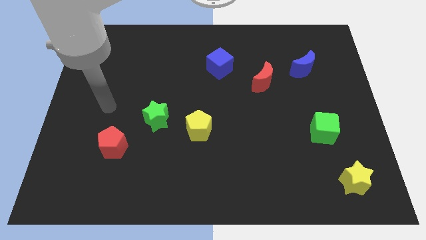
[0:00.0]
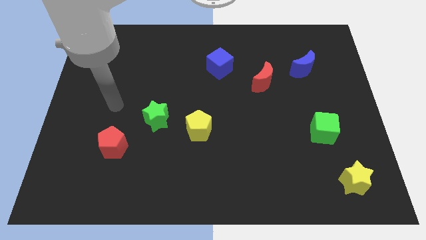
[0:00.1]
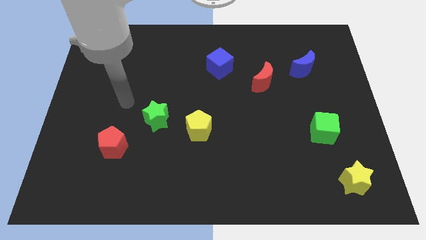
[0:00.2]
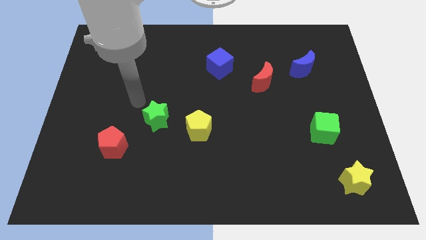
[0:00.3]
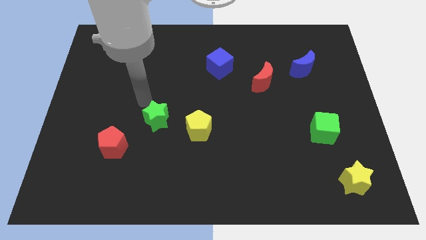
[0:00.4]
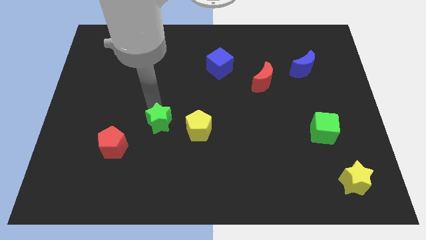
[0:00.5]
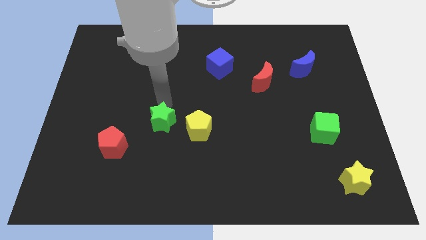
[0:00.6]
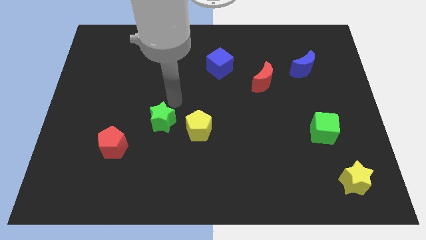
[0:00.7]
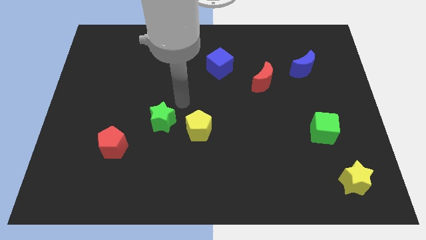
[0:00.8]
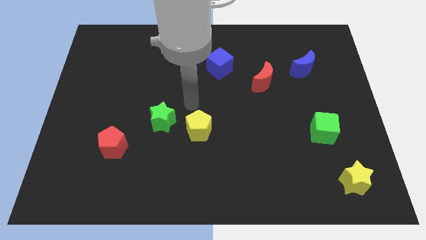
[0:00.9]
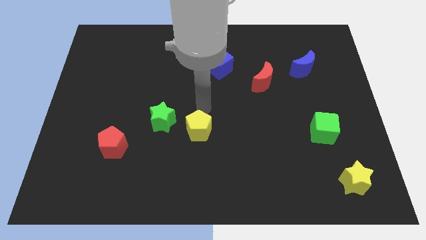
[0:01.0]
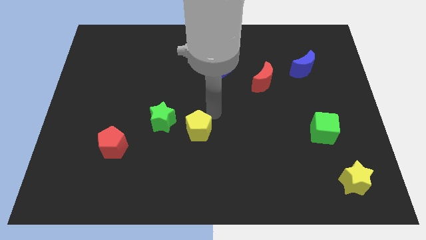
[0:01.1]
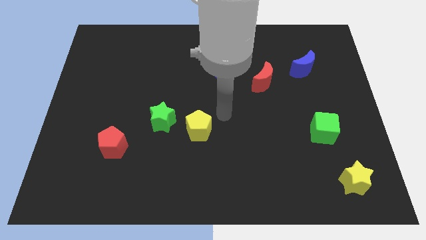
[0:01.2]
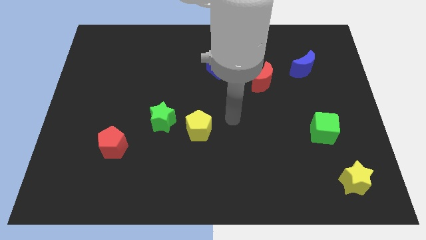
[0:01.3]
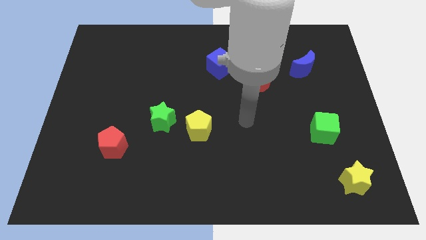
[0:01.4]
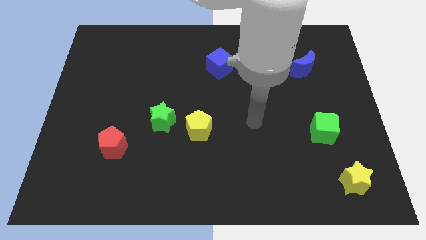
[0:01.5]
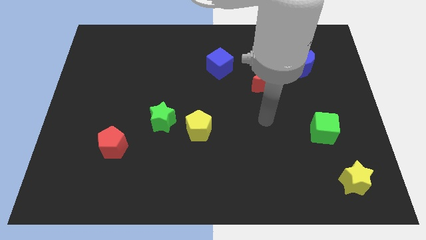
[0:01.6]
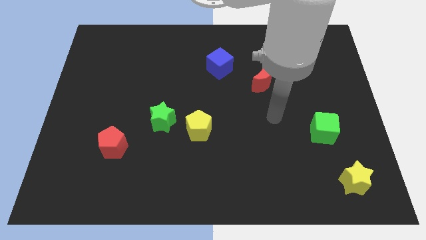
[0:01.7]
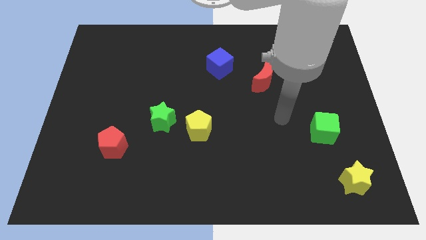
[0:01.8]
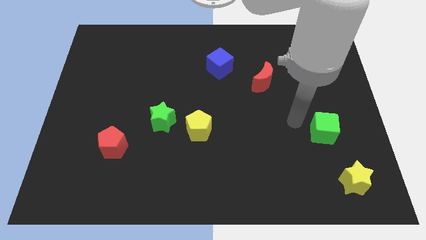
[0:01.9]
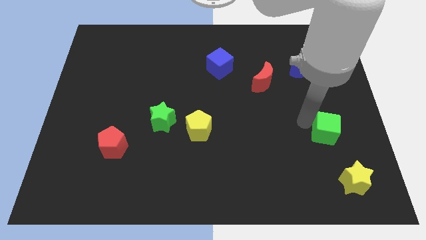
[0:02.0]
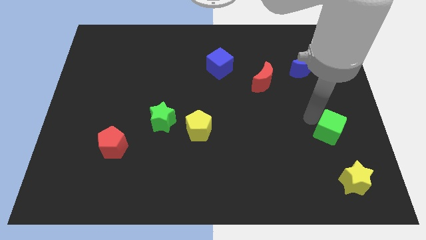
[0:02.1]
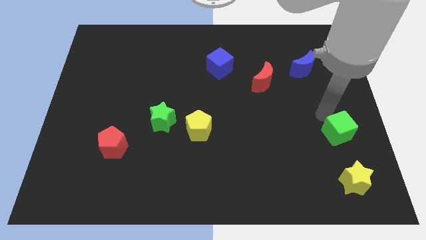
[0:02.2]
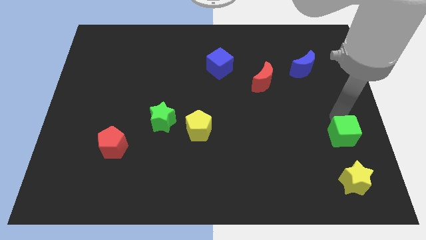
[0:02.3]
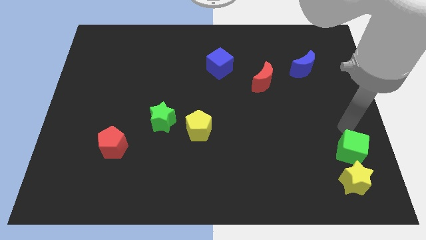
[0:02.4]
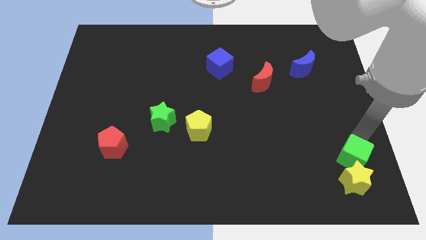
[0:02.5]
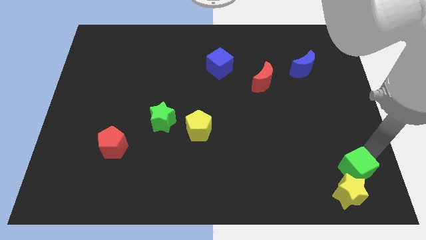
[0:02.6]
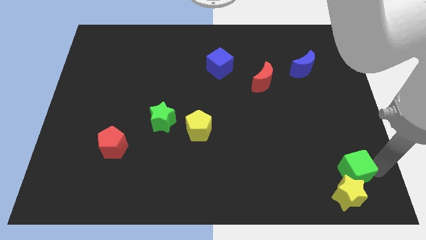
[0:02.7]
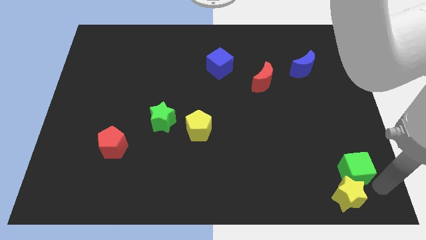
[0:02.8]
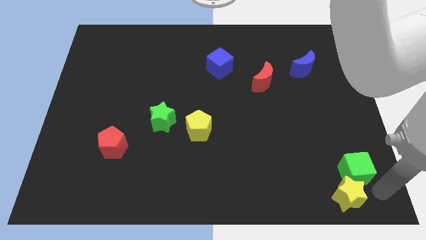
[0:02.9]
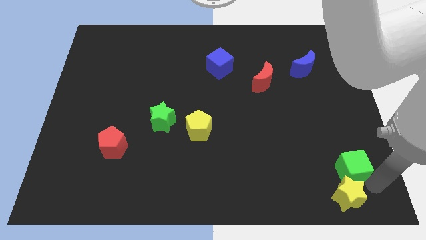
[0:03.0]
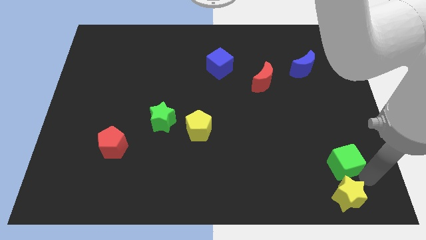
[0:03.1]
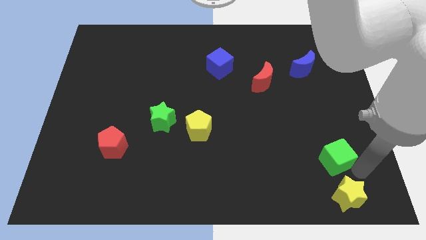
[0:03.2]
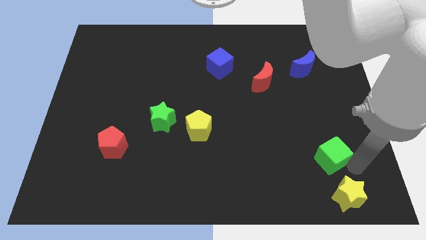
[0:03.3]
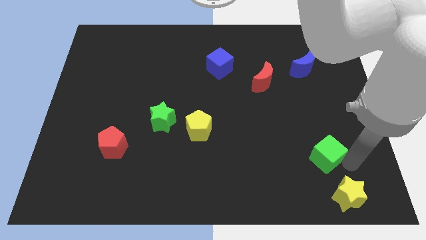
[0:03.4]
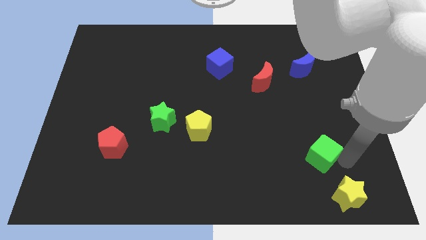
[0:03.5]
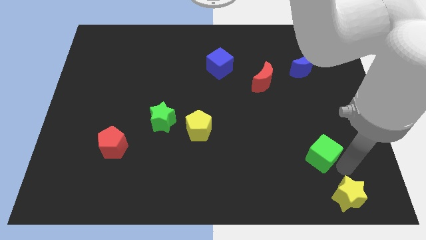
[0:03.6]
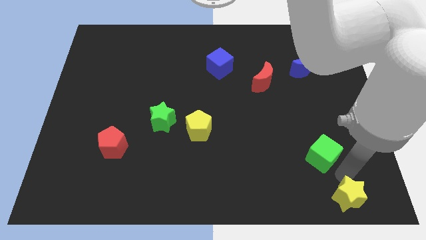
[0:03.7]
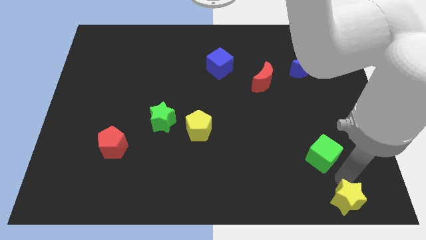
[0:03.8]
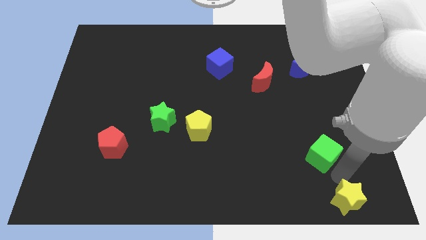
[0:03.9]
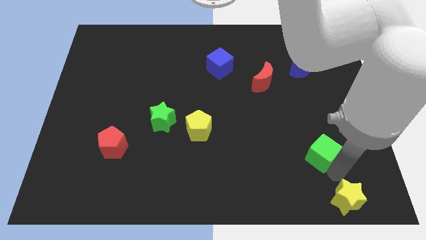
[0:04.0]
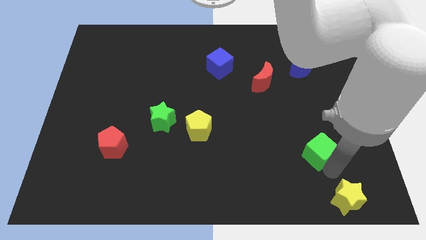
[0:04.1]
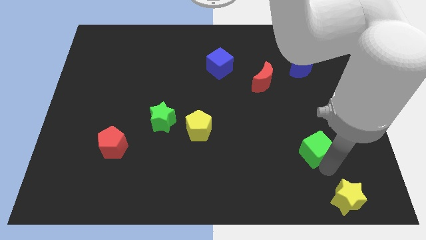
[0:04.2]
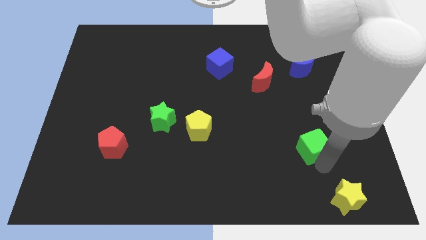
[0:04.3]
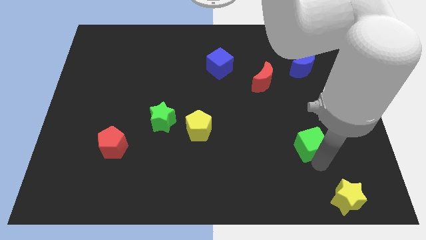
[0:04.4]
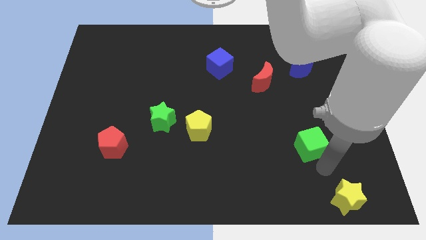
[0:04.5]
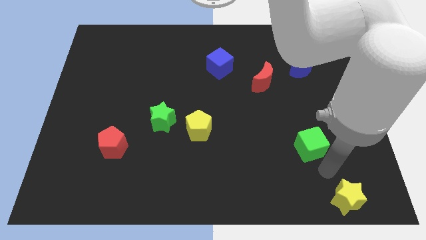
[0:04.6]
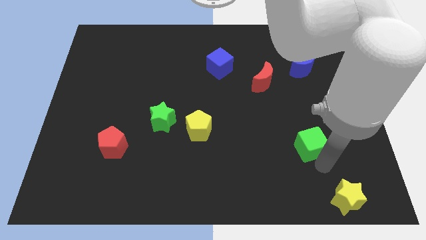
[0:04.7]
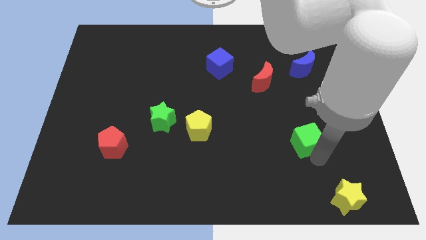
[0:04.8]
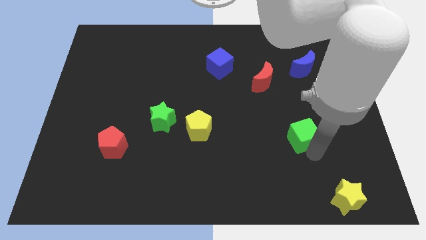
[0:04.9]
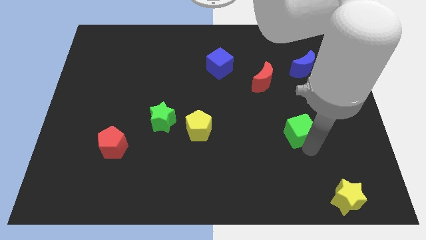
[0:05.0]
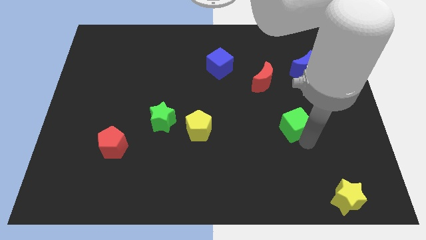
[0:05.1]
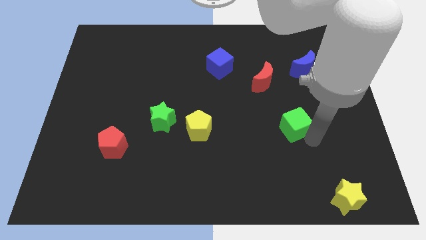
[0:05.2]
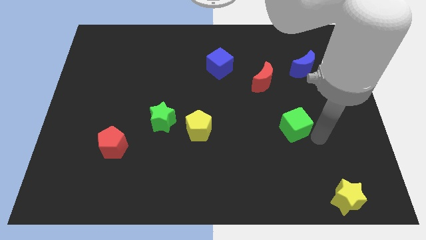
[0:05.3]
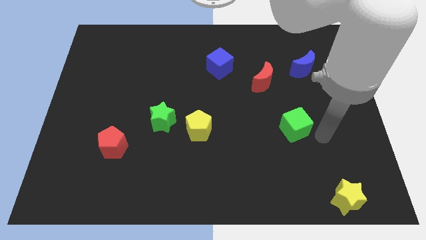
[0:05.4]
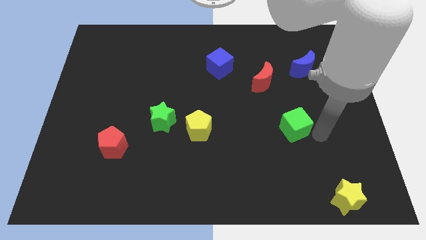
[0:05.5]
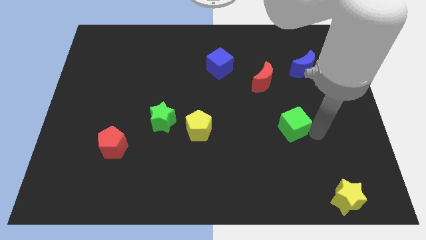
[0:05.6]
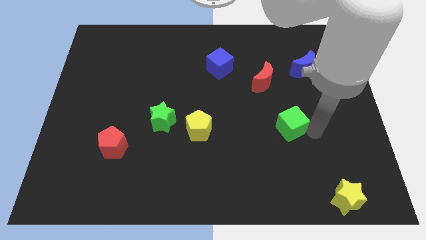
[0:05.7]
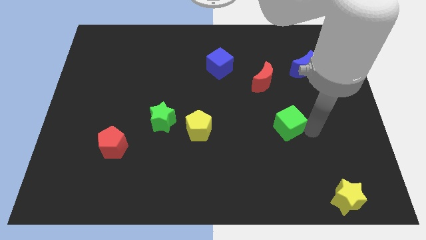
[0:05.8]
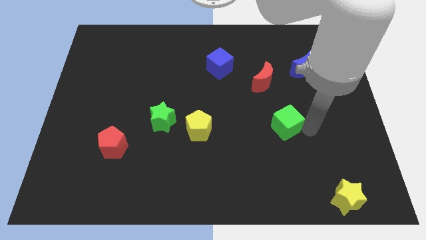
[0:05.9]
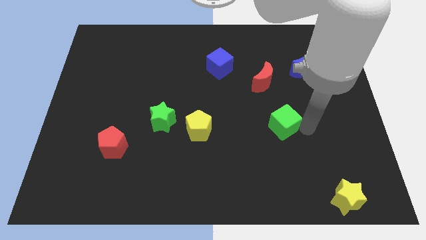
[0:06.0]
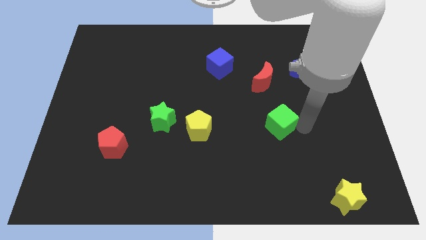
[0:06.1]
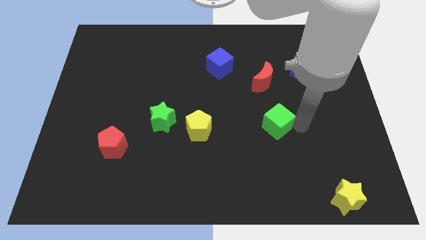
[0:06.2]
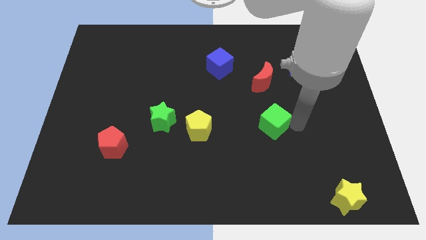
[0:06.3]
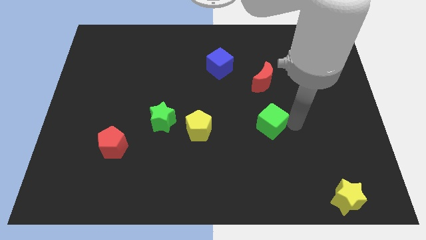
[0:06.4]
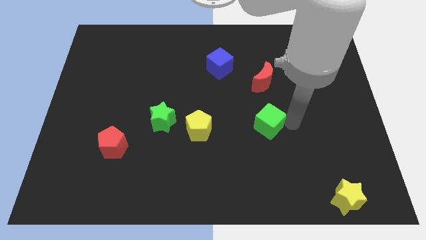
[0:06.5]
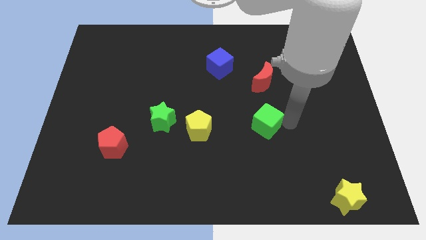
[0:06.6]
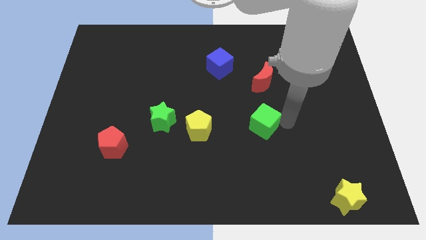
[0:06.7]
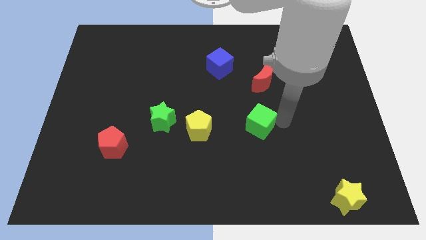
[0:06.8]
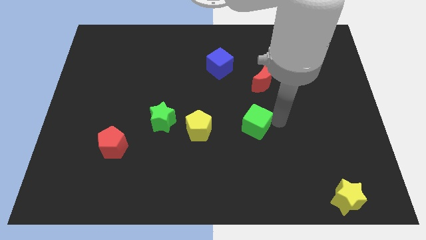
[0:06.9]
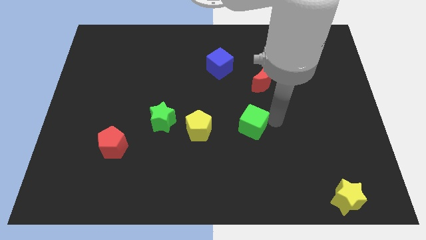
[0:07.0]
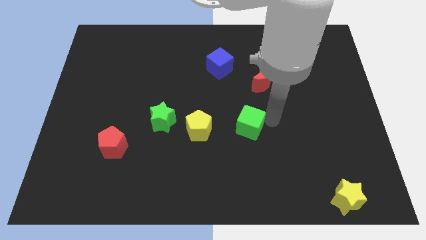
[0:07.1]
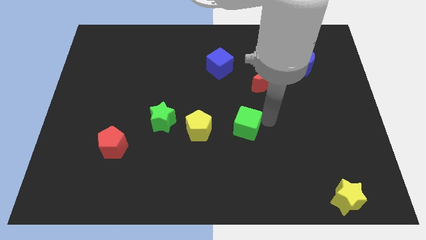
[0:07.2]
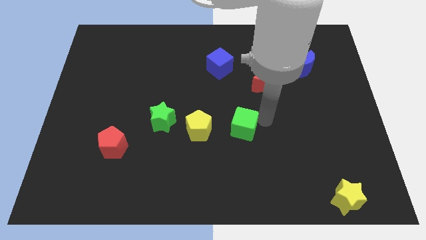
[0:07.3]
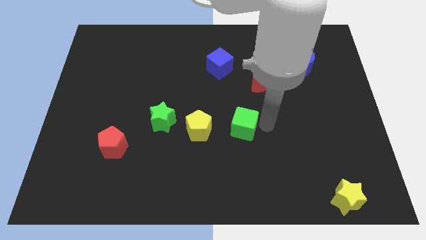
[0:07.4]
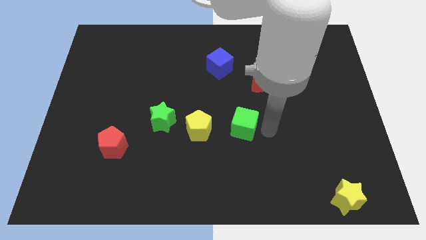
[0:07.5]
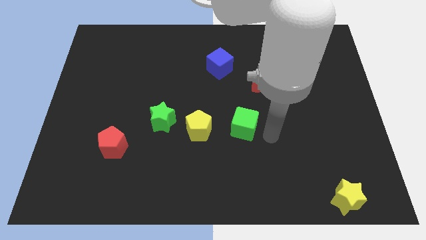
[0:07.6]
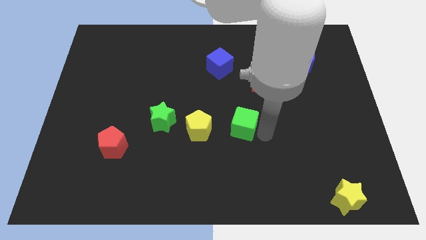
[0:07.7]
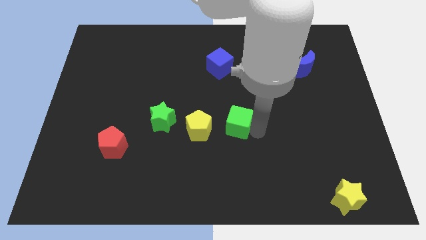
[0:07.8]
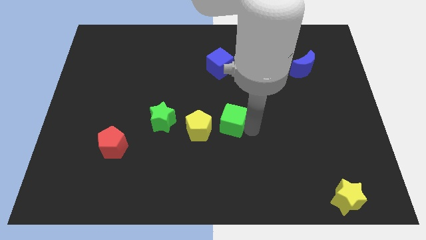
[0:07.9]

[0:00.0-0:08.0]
move the green cube to the left
